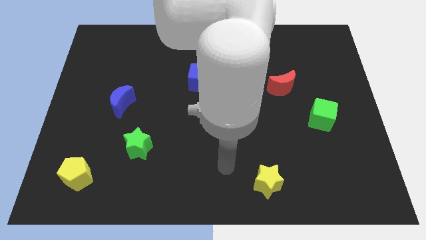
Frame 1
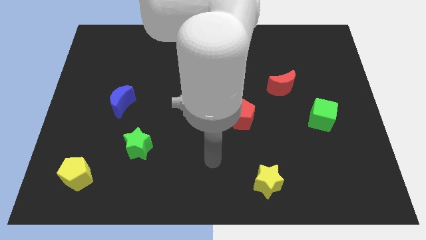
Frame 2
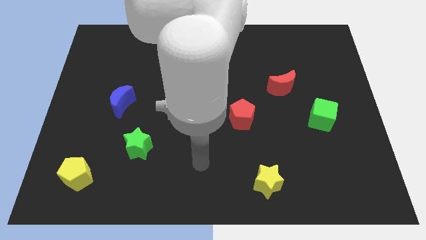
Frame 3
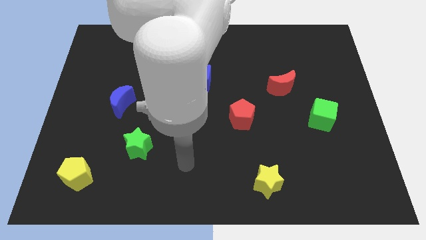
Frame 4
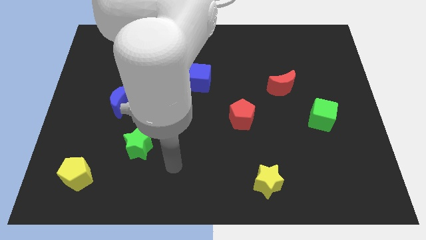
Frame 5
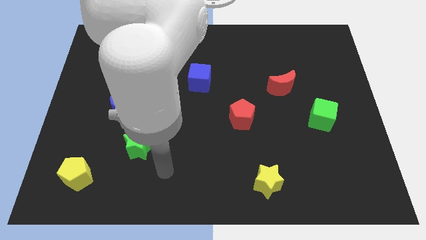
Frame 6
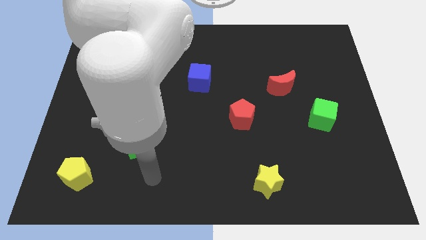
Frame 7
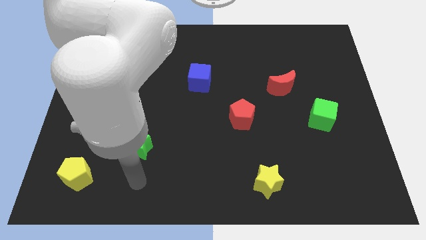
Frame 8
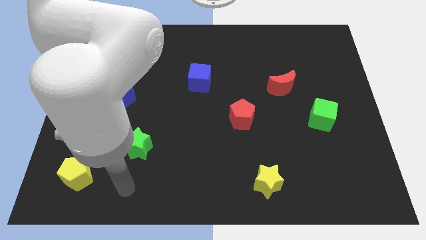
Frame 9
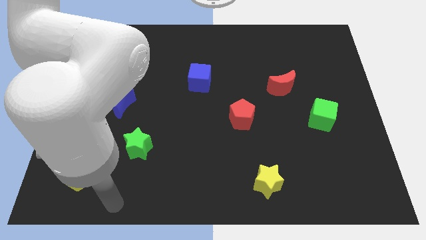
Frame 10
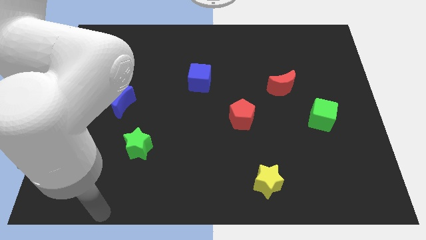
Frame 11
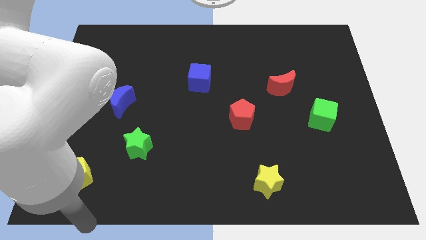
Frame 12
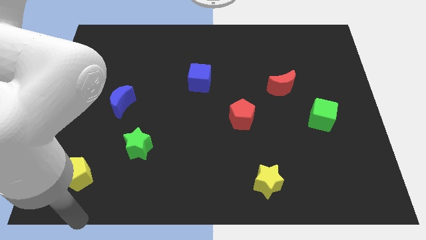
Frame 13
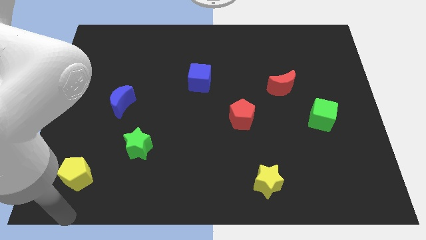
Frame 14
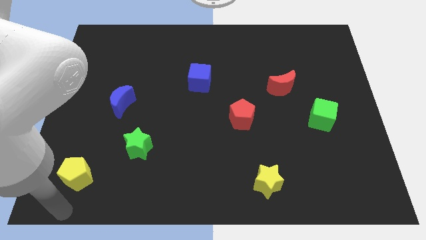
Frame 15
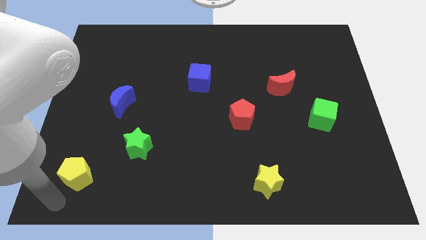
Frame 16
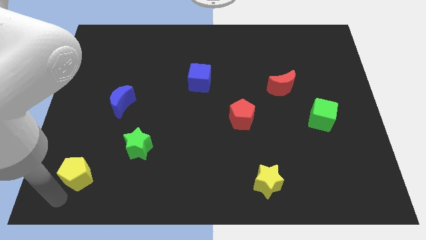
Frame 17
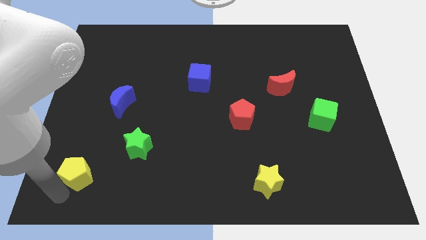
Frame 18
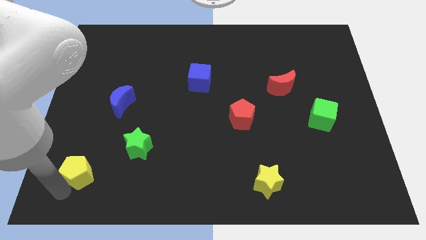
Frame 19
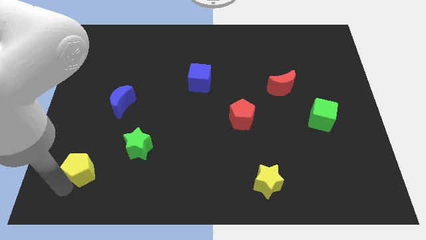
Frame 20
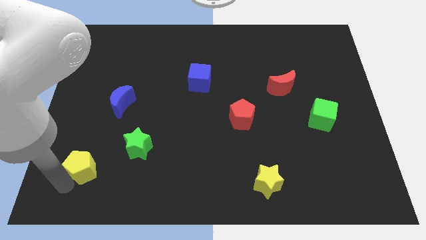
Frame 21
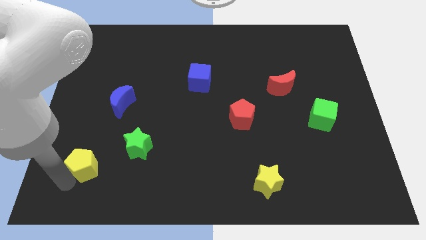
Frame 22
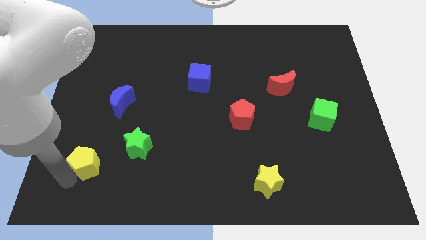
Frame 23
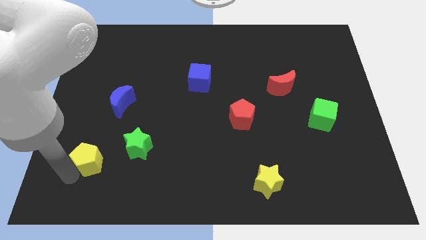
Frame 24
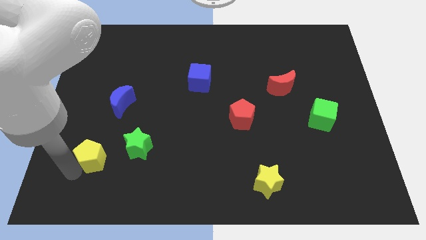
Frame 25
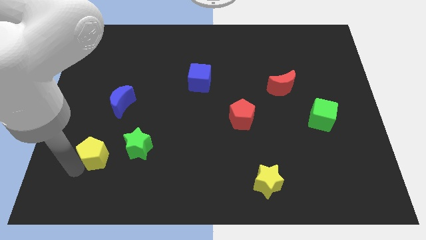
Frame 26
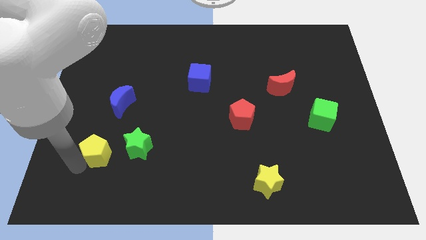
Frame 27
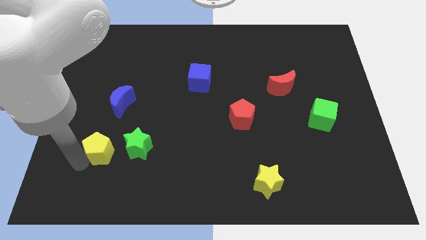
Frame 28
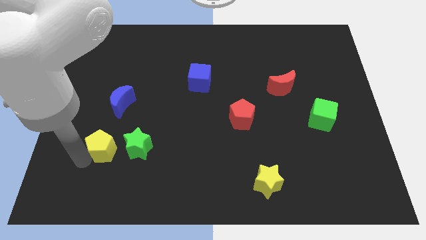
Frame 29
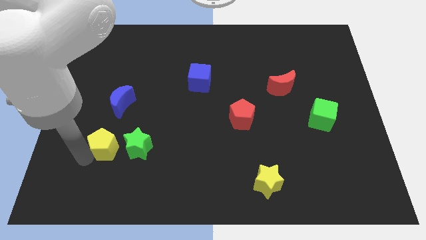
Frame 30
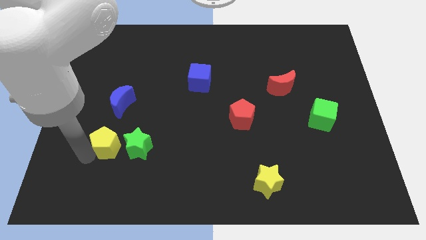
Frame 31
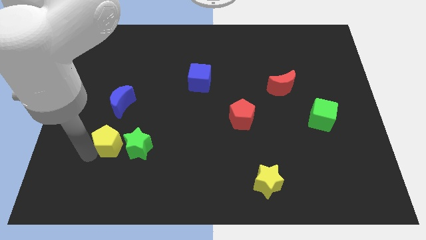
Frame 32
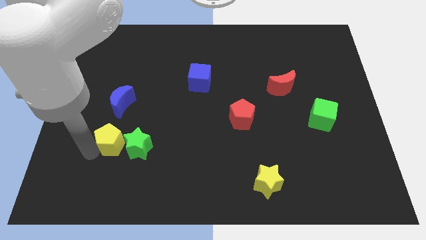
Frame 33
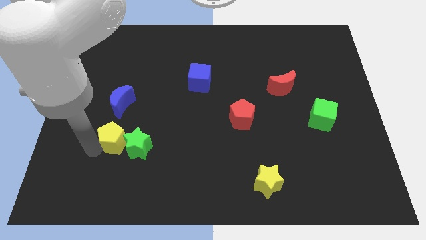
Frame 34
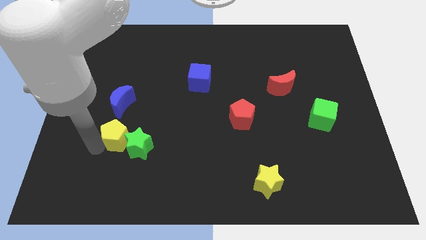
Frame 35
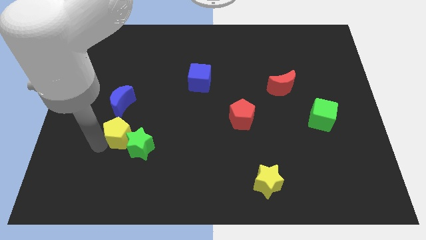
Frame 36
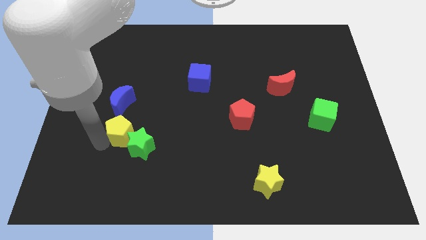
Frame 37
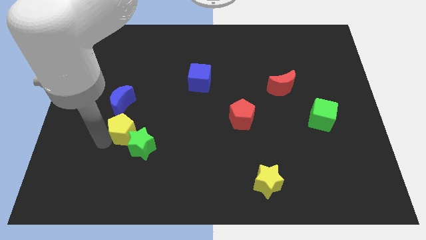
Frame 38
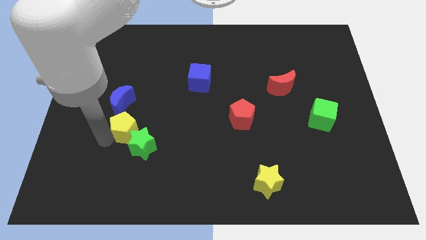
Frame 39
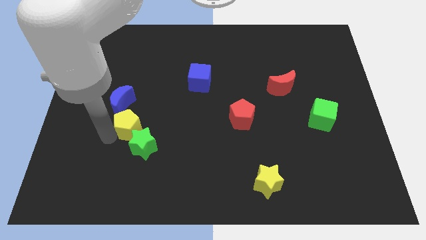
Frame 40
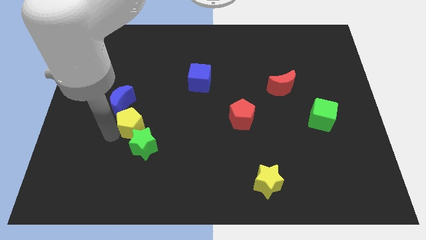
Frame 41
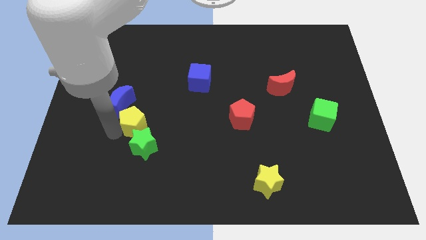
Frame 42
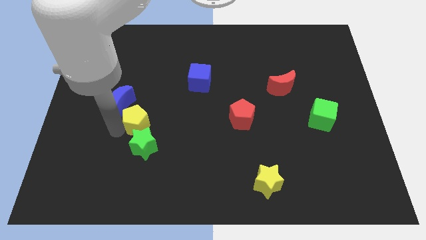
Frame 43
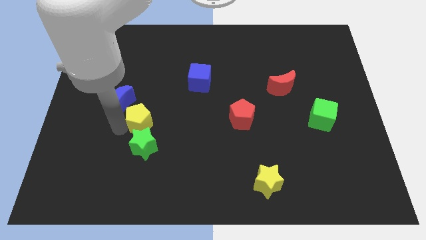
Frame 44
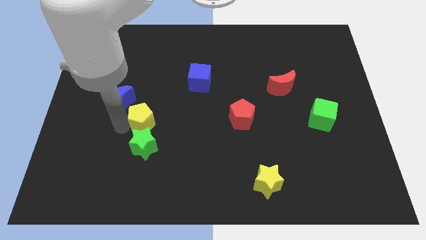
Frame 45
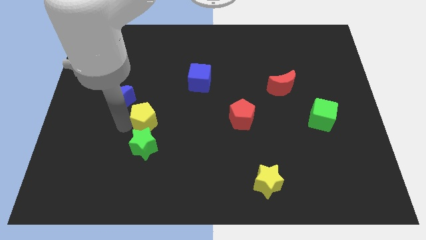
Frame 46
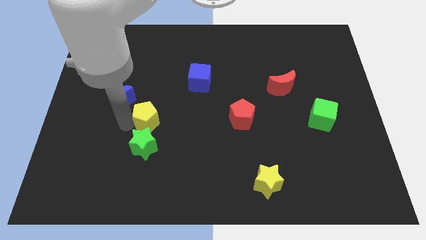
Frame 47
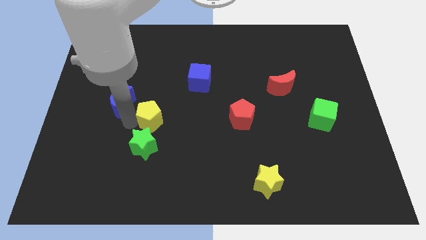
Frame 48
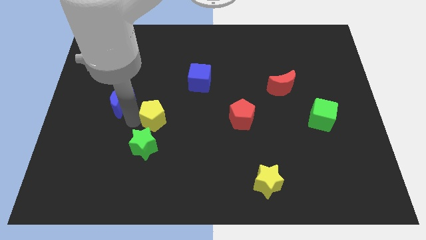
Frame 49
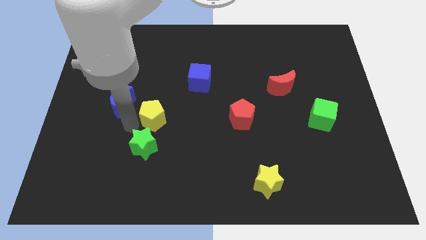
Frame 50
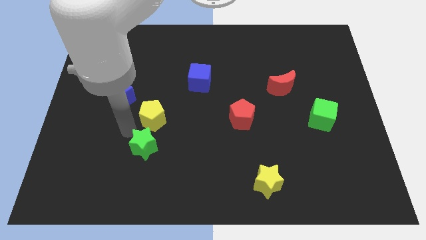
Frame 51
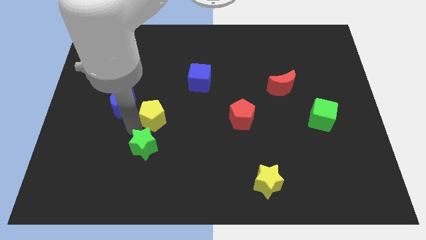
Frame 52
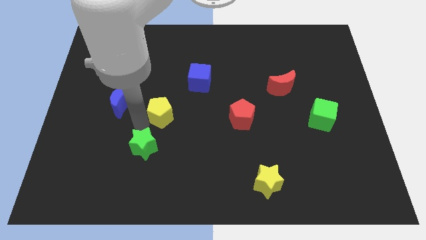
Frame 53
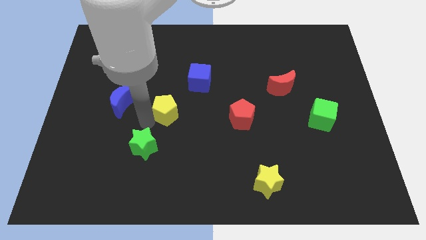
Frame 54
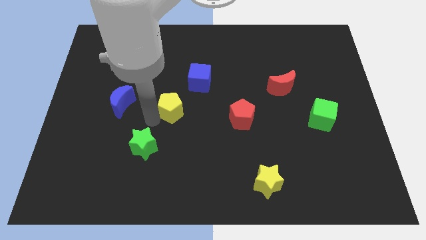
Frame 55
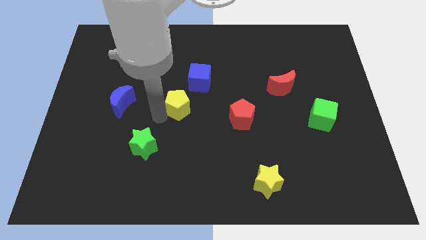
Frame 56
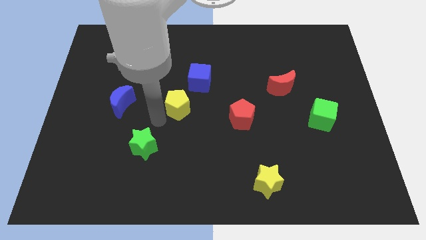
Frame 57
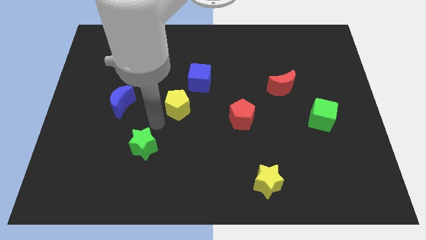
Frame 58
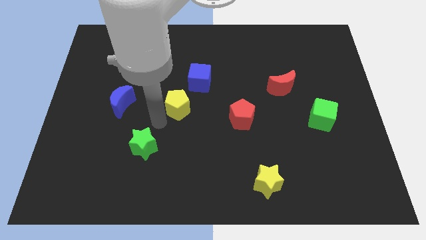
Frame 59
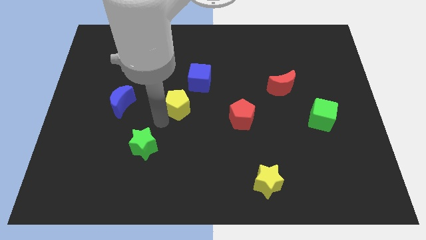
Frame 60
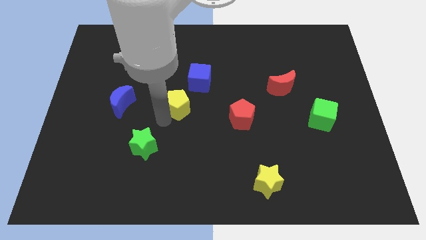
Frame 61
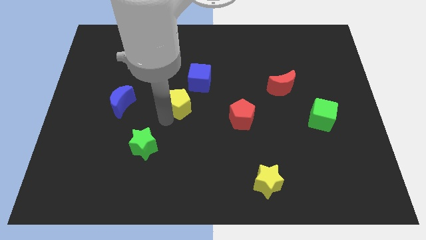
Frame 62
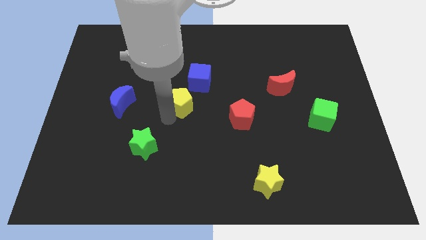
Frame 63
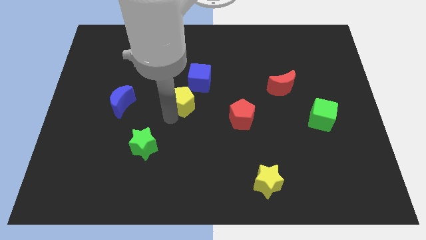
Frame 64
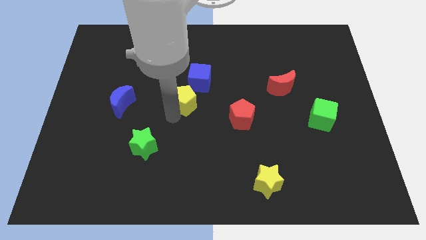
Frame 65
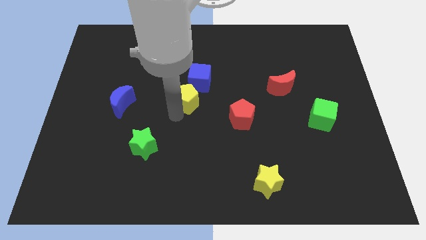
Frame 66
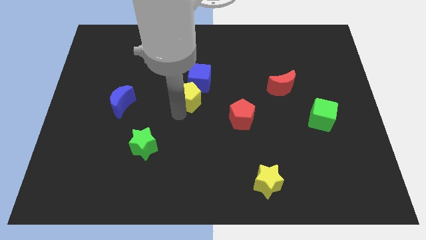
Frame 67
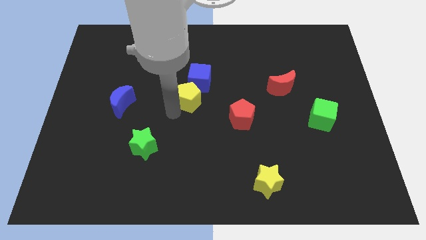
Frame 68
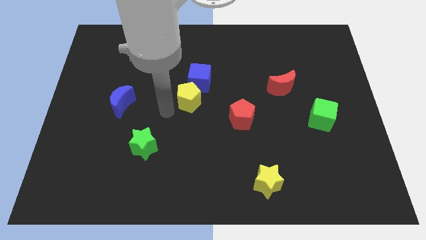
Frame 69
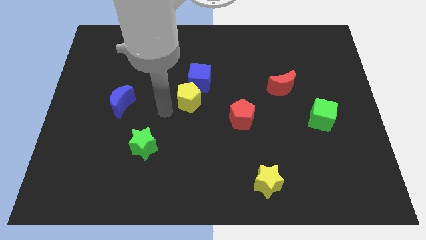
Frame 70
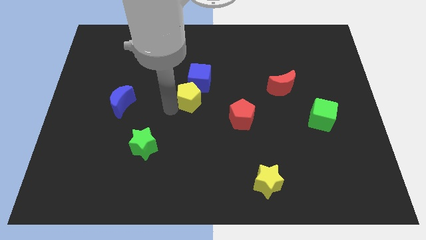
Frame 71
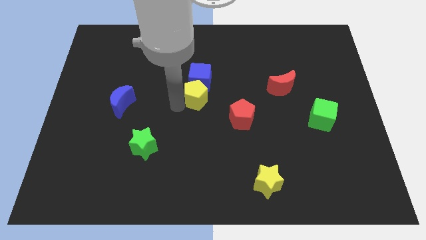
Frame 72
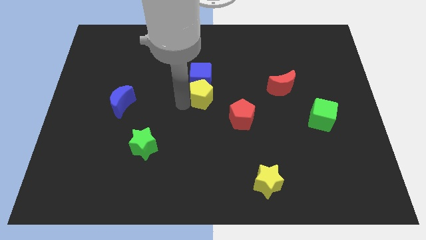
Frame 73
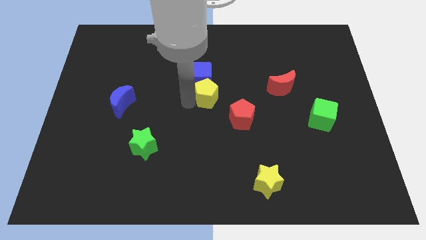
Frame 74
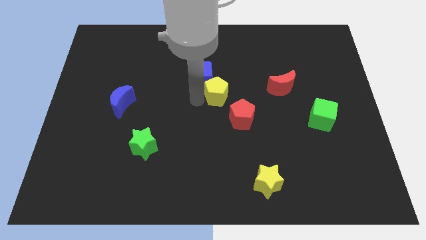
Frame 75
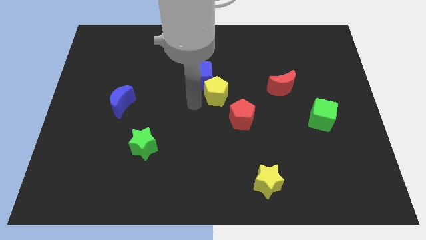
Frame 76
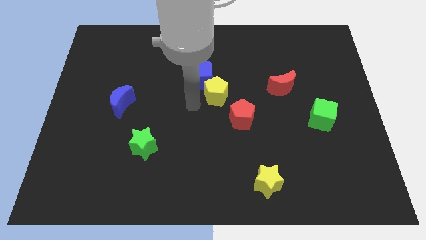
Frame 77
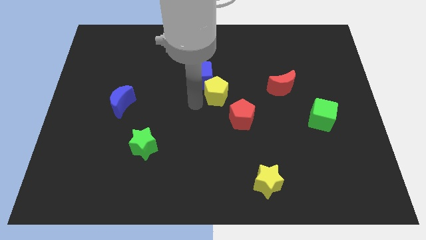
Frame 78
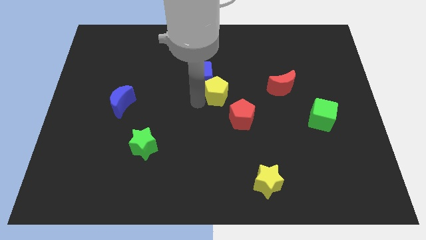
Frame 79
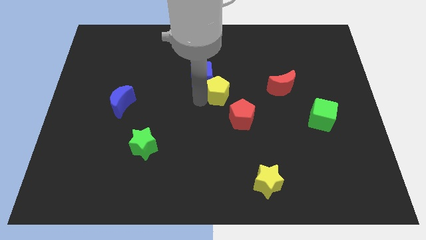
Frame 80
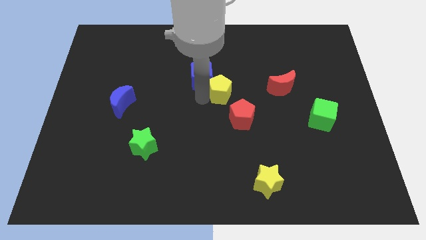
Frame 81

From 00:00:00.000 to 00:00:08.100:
put the yellow pentagon to the top of the red pentagon

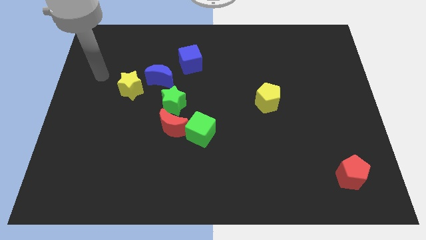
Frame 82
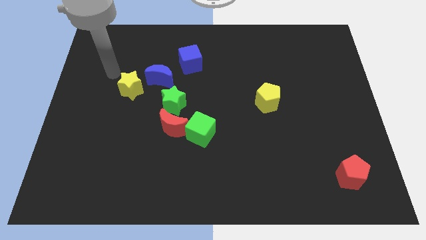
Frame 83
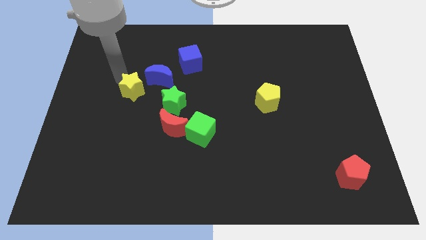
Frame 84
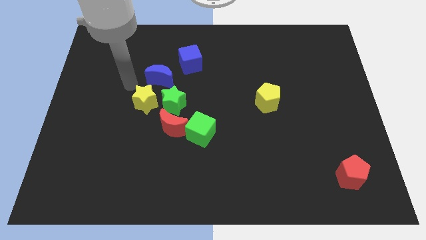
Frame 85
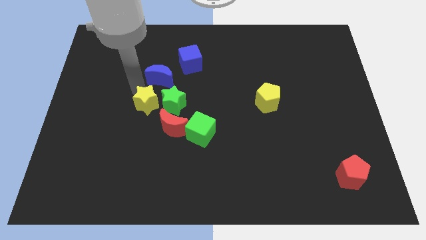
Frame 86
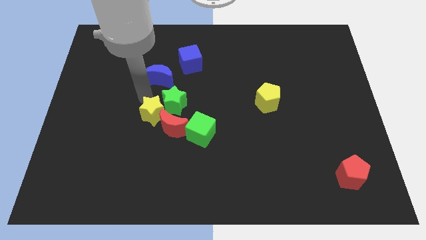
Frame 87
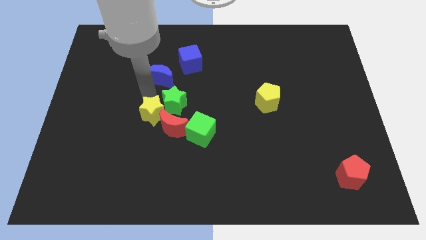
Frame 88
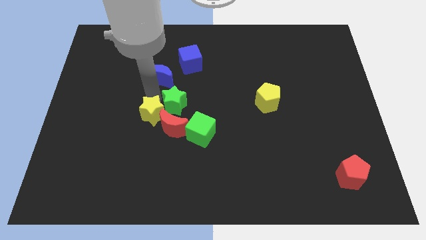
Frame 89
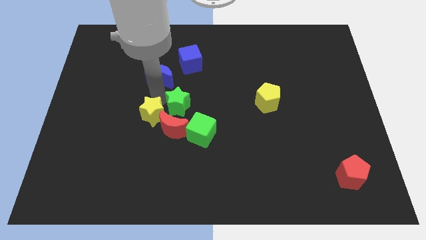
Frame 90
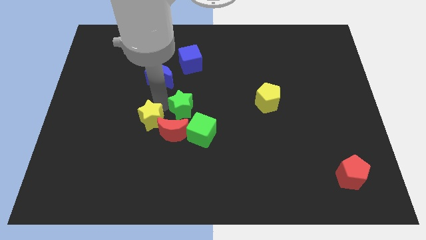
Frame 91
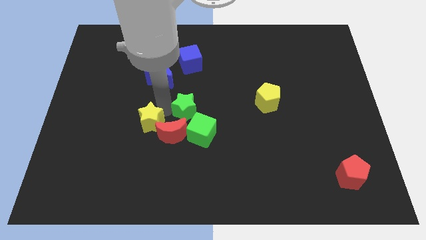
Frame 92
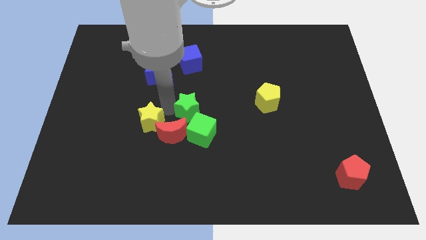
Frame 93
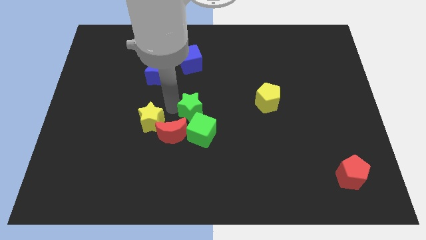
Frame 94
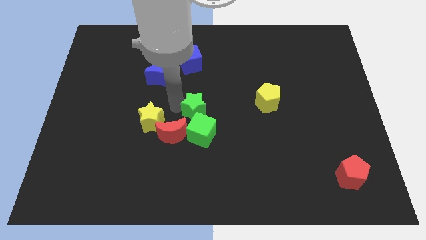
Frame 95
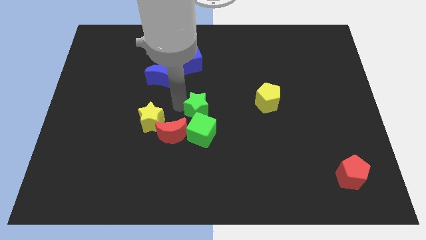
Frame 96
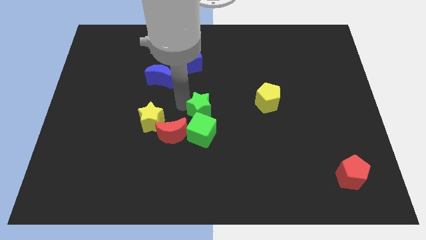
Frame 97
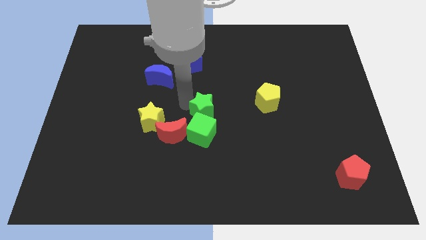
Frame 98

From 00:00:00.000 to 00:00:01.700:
slide the green star to the left side of the yellow pentagon
